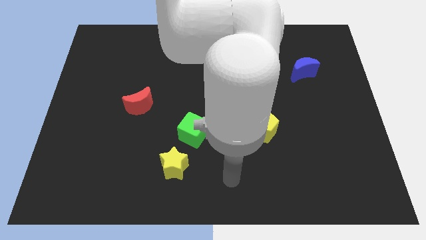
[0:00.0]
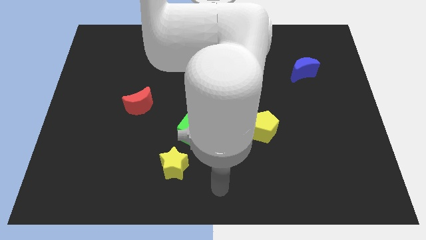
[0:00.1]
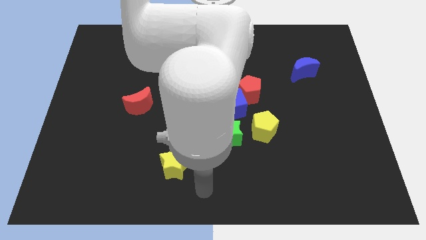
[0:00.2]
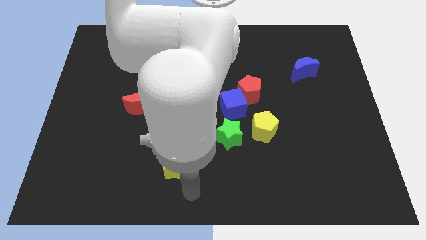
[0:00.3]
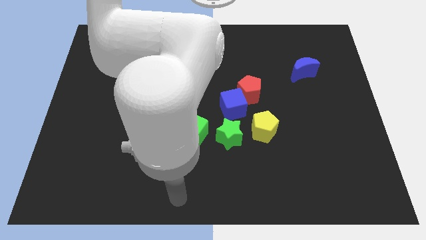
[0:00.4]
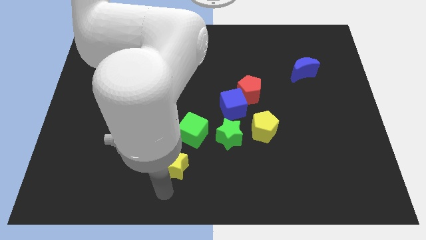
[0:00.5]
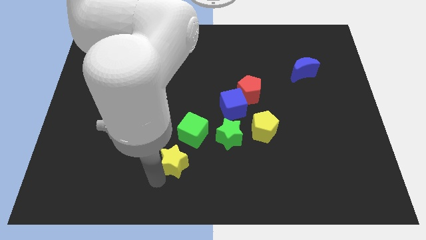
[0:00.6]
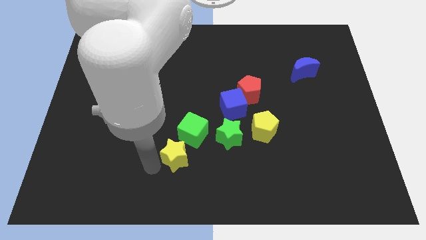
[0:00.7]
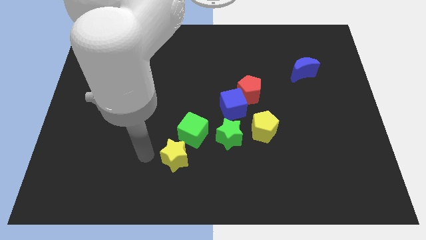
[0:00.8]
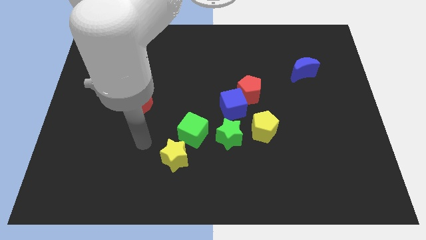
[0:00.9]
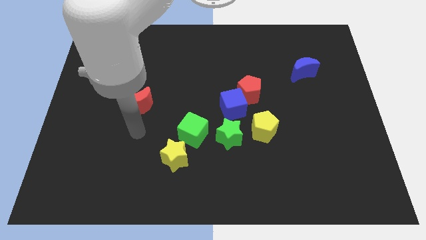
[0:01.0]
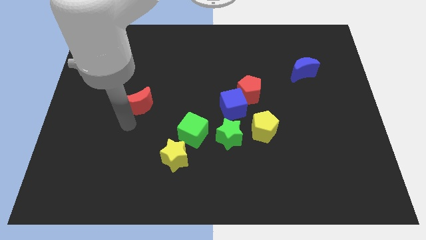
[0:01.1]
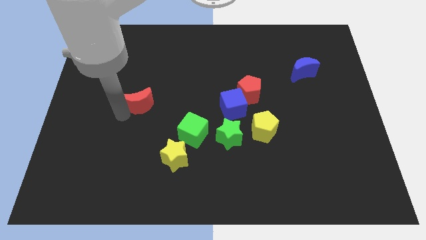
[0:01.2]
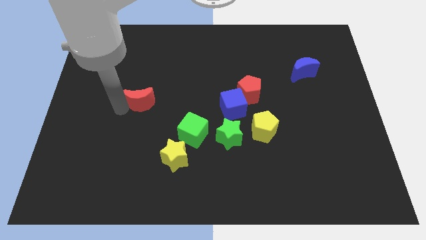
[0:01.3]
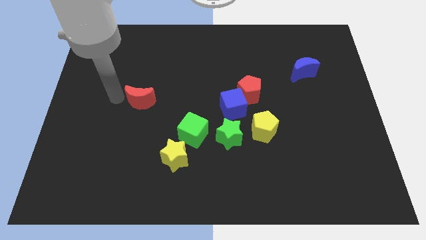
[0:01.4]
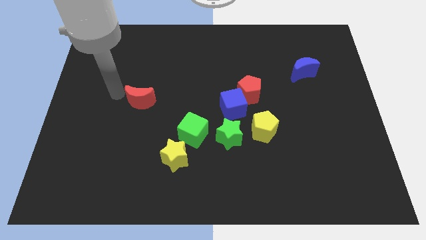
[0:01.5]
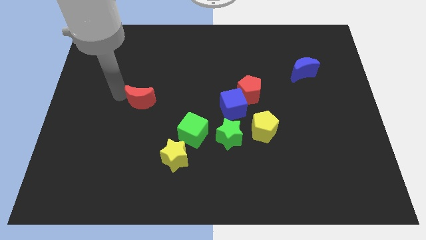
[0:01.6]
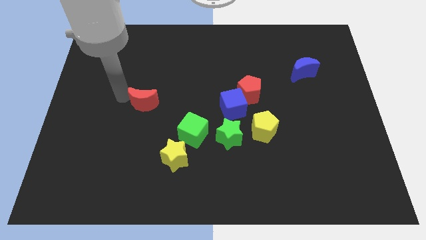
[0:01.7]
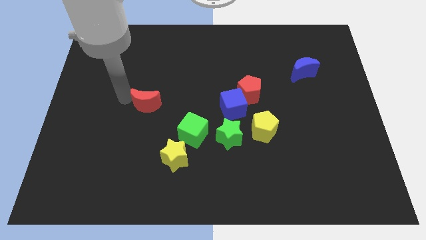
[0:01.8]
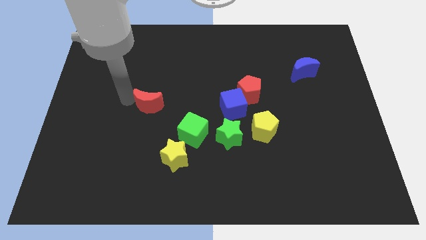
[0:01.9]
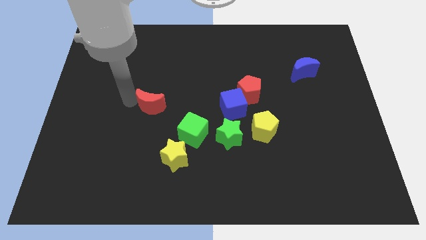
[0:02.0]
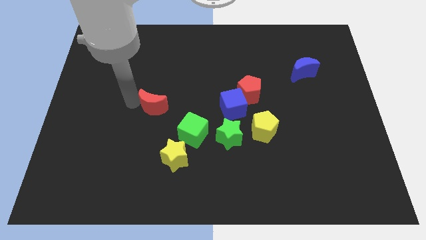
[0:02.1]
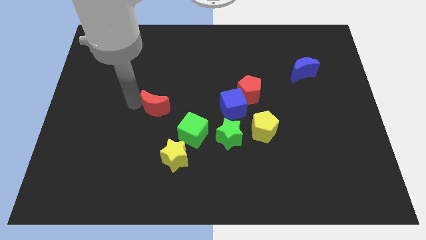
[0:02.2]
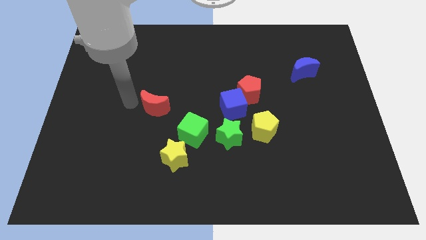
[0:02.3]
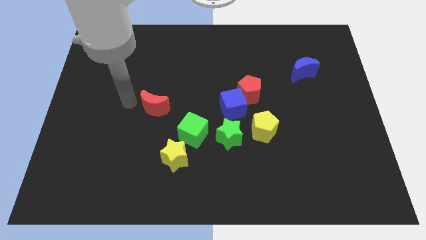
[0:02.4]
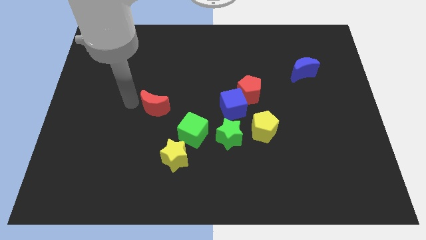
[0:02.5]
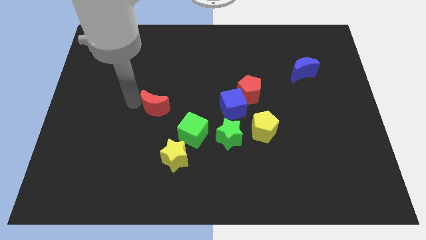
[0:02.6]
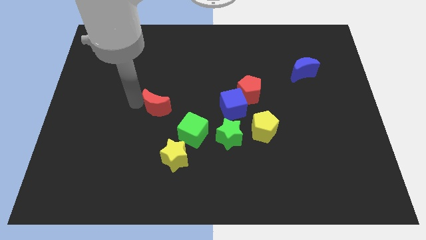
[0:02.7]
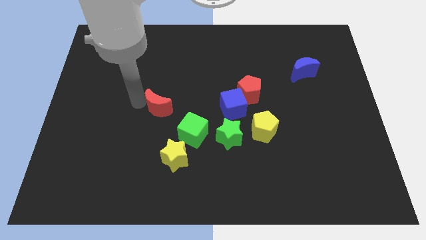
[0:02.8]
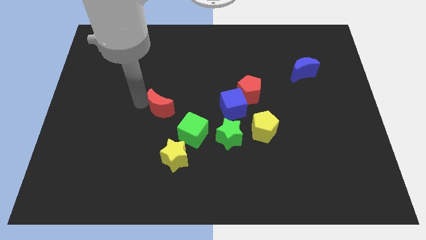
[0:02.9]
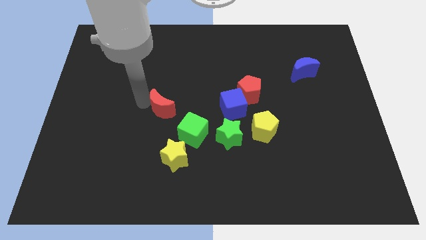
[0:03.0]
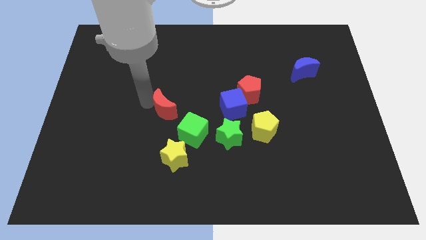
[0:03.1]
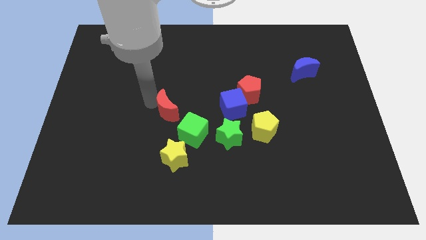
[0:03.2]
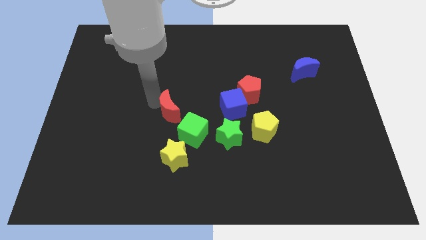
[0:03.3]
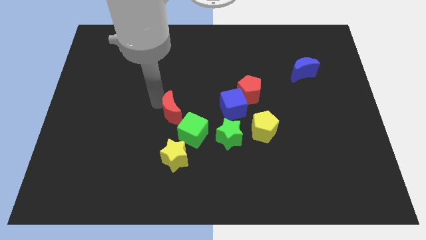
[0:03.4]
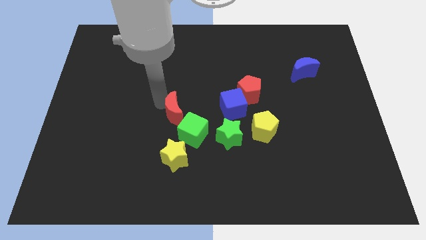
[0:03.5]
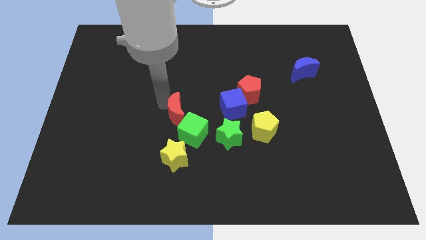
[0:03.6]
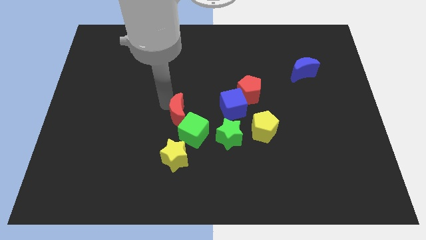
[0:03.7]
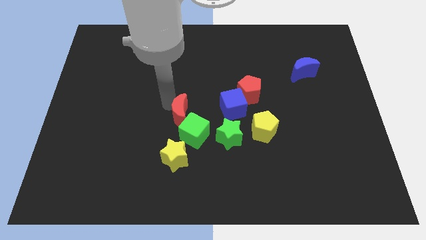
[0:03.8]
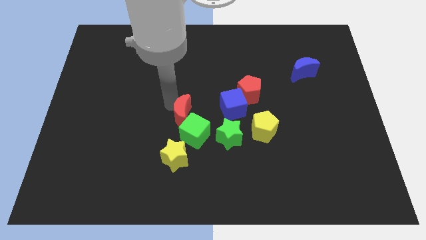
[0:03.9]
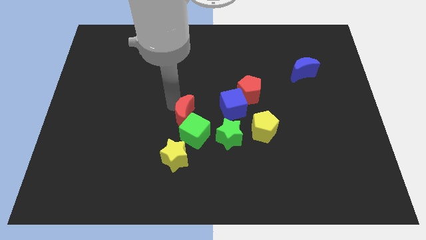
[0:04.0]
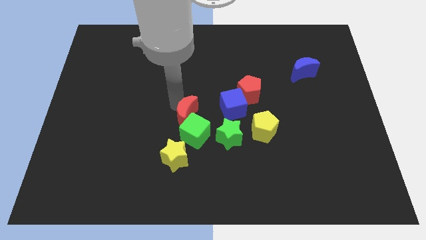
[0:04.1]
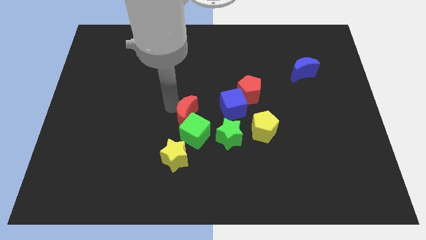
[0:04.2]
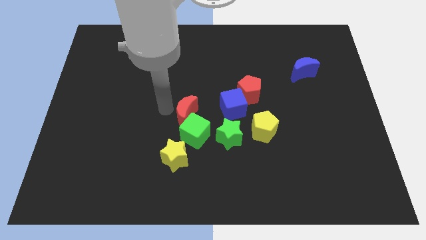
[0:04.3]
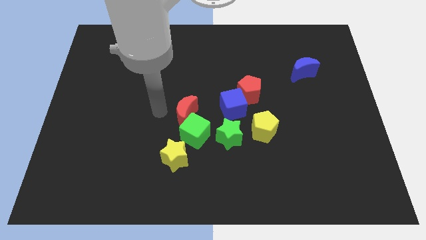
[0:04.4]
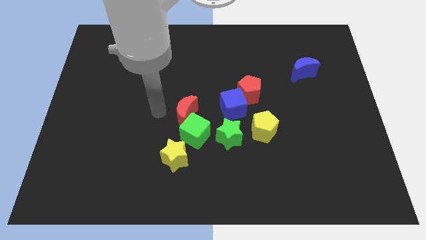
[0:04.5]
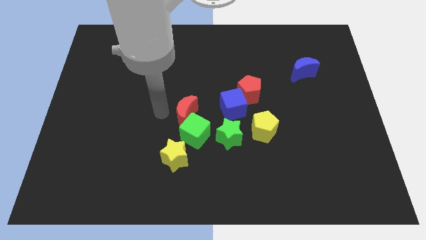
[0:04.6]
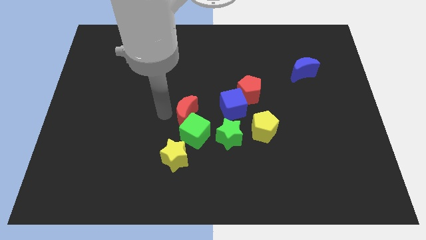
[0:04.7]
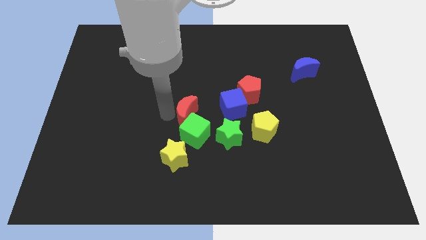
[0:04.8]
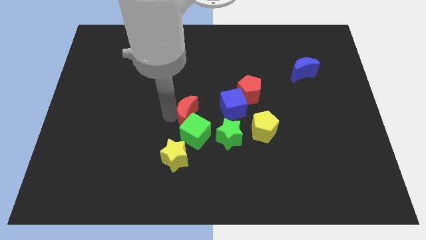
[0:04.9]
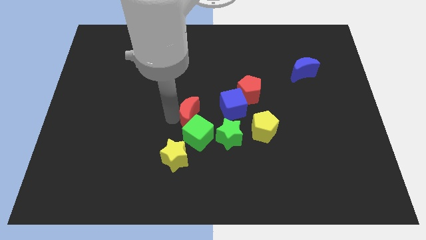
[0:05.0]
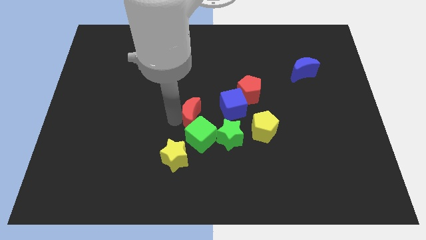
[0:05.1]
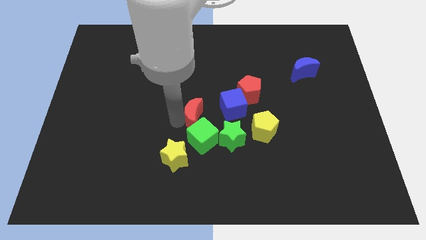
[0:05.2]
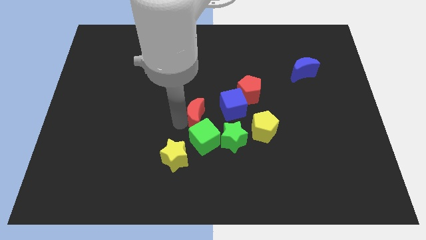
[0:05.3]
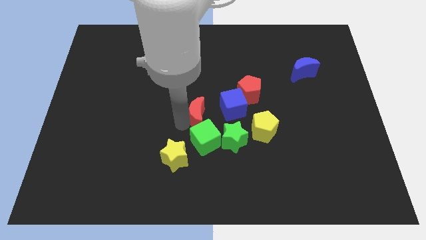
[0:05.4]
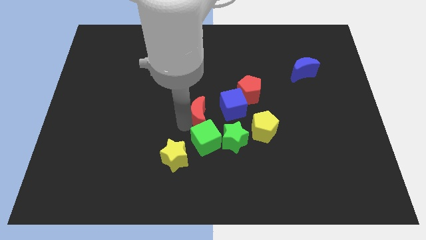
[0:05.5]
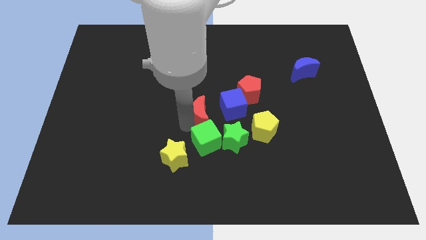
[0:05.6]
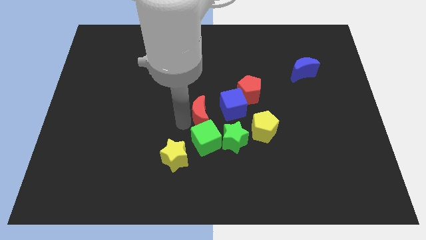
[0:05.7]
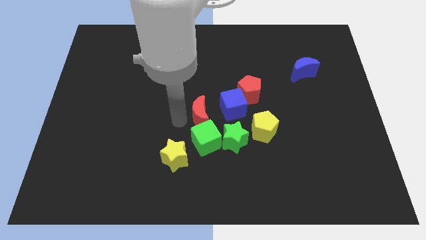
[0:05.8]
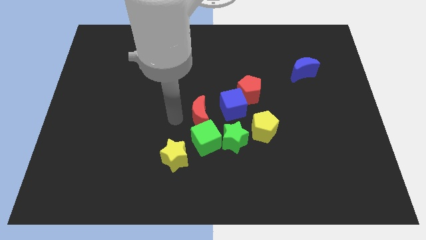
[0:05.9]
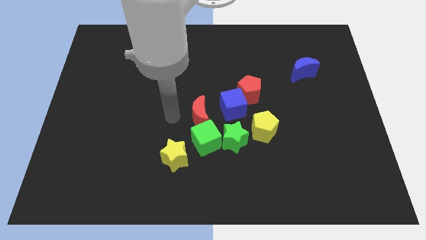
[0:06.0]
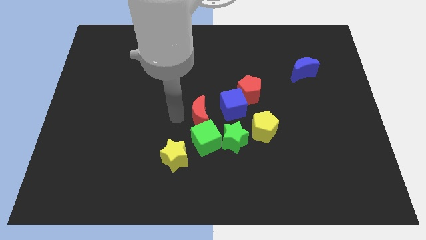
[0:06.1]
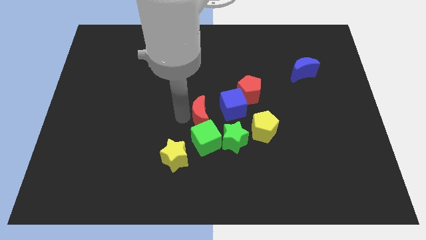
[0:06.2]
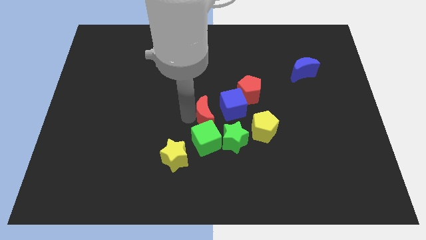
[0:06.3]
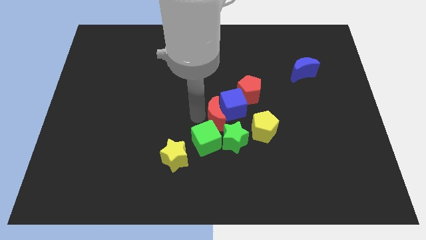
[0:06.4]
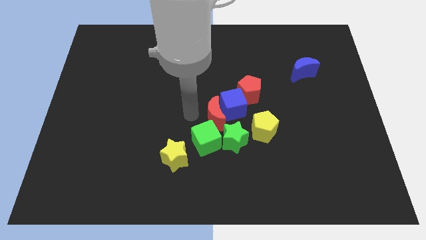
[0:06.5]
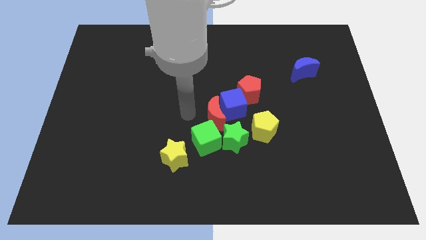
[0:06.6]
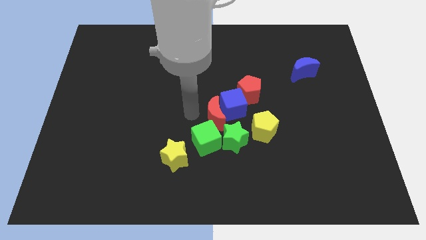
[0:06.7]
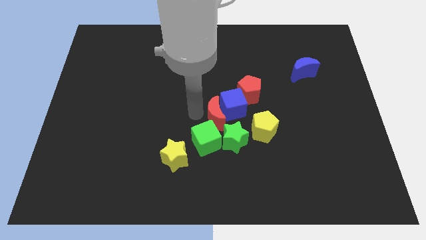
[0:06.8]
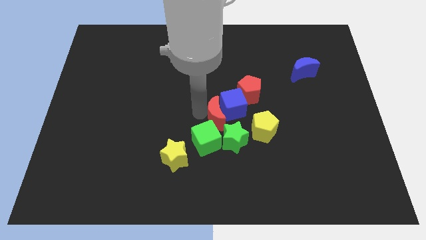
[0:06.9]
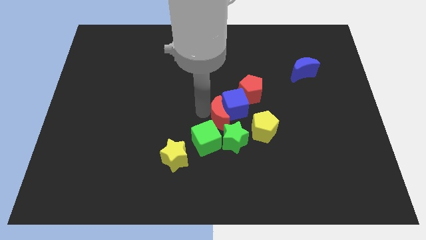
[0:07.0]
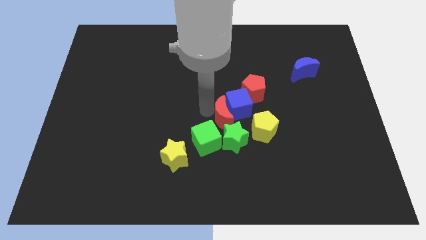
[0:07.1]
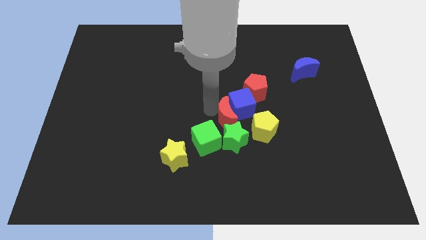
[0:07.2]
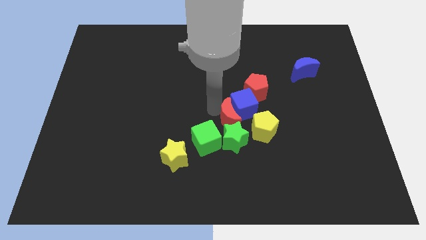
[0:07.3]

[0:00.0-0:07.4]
move the red moon diagonally up and to the right of the green star
